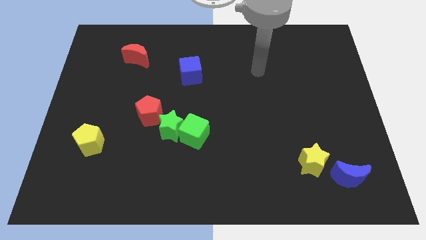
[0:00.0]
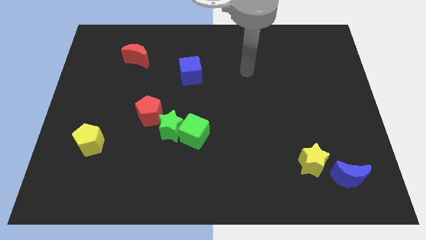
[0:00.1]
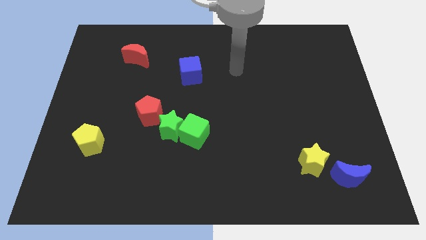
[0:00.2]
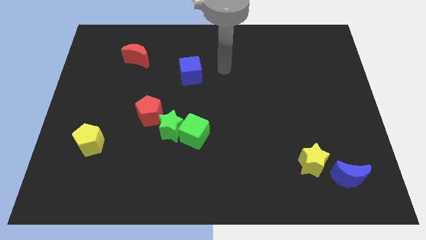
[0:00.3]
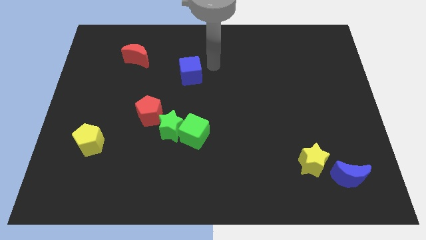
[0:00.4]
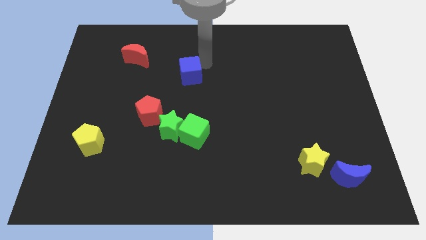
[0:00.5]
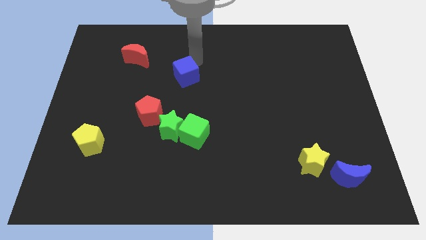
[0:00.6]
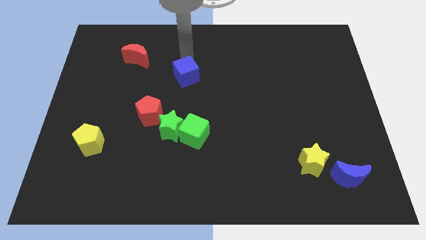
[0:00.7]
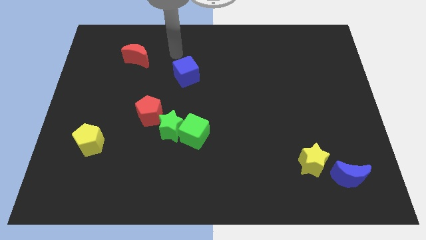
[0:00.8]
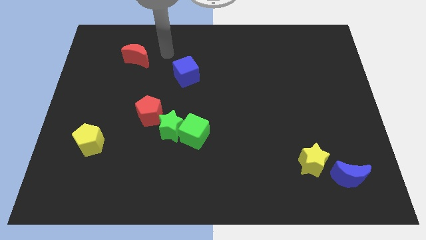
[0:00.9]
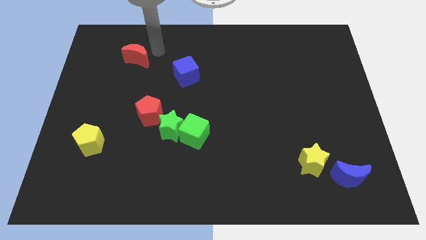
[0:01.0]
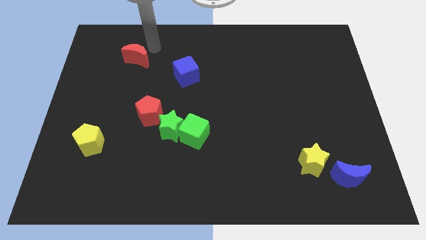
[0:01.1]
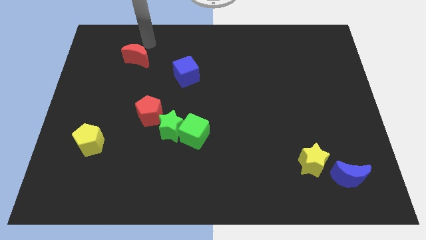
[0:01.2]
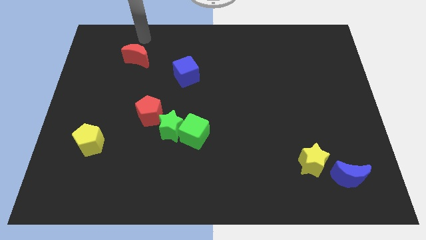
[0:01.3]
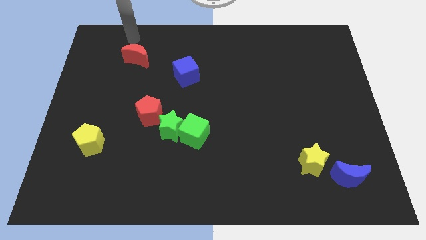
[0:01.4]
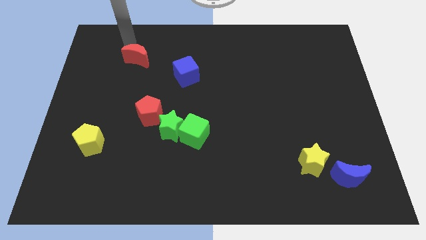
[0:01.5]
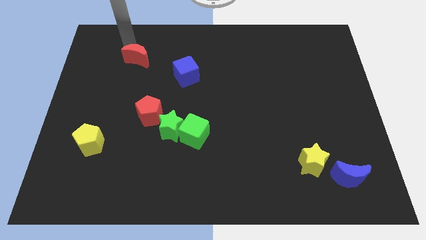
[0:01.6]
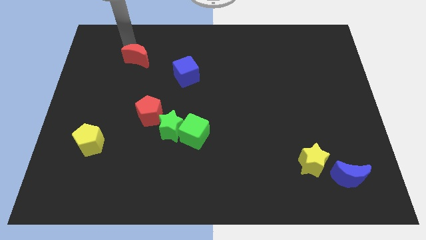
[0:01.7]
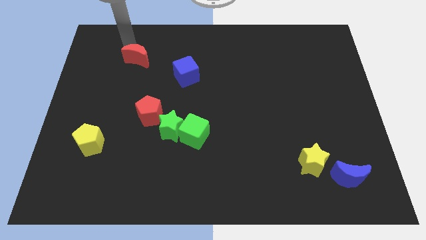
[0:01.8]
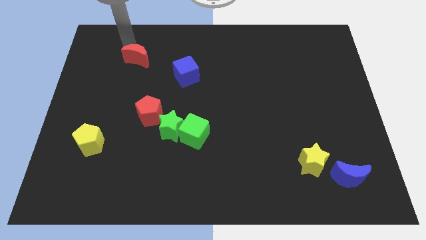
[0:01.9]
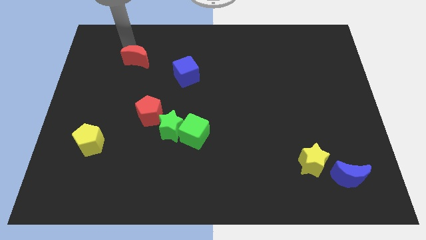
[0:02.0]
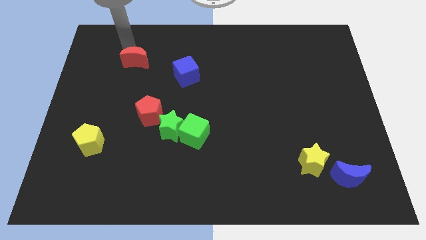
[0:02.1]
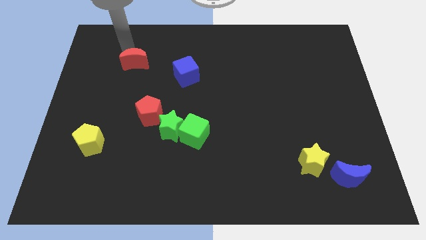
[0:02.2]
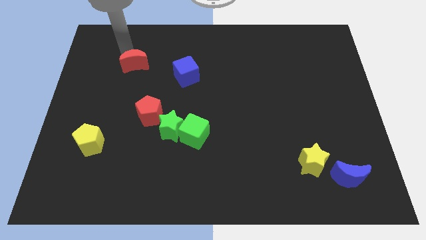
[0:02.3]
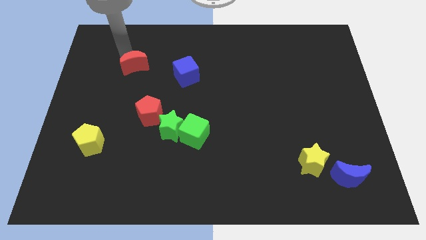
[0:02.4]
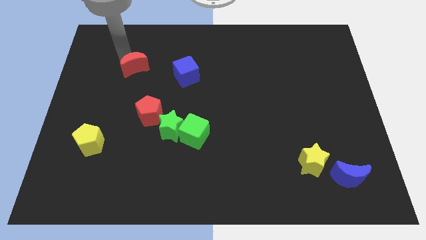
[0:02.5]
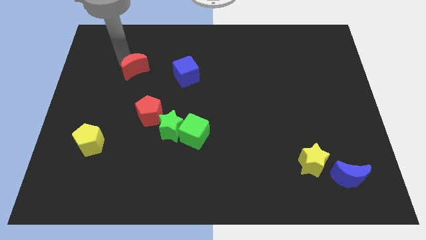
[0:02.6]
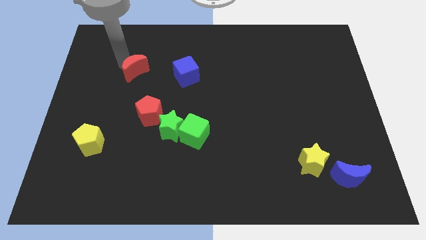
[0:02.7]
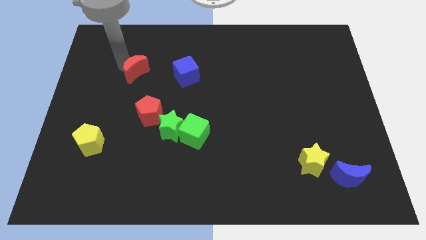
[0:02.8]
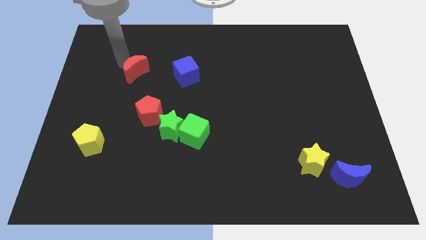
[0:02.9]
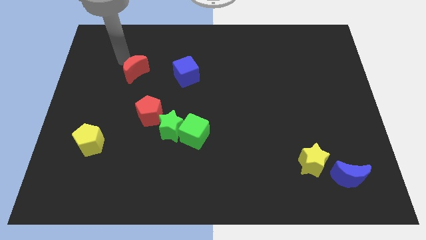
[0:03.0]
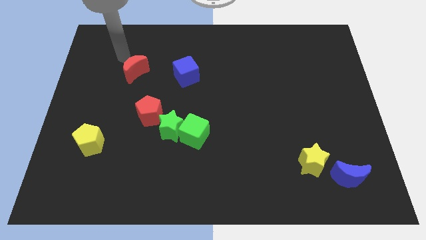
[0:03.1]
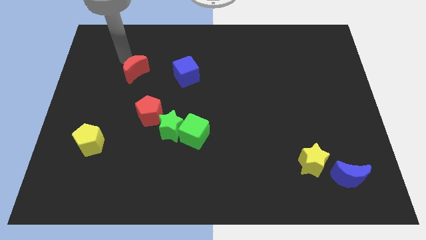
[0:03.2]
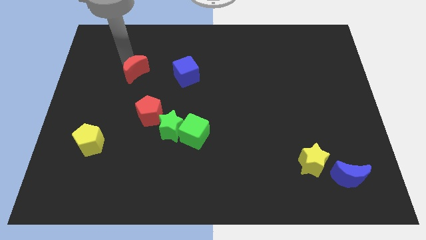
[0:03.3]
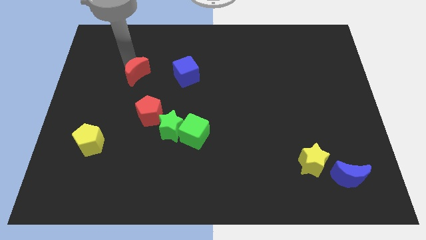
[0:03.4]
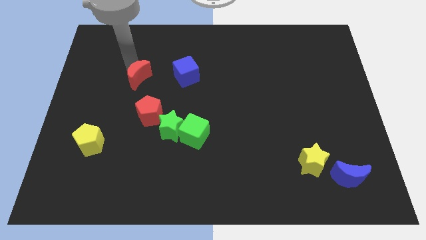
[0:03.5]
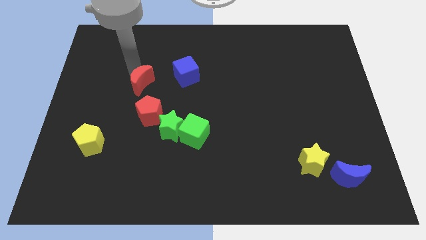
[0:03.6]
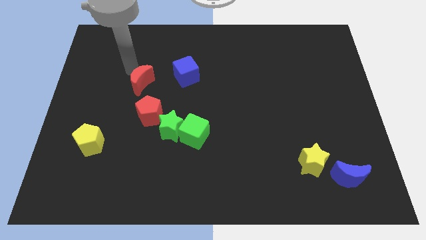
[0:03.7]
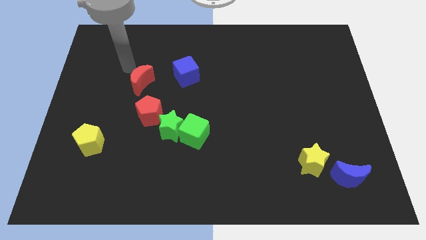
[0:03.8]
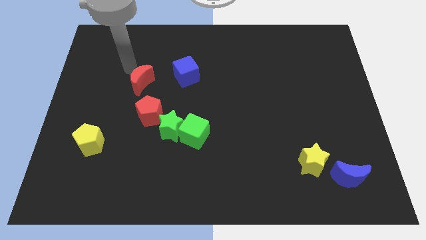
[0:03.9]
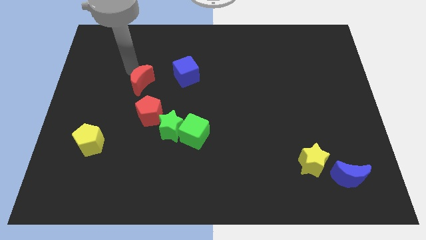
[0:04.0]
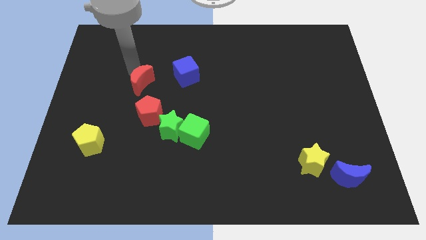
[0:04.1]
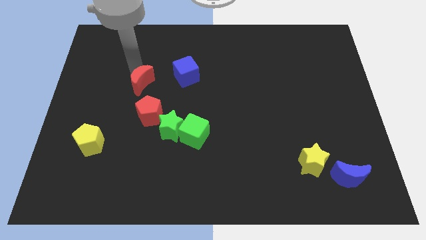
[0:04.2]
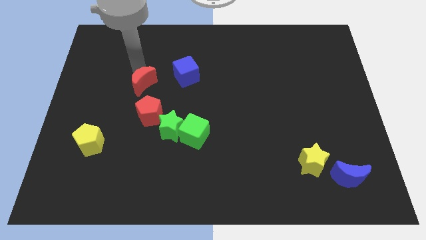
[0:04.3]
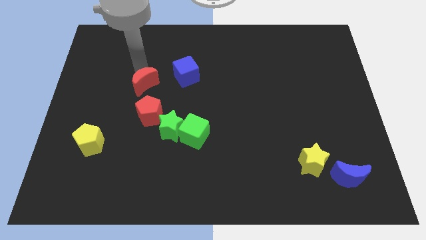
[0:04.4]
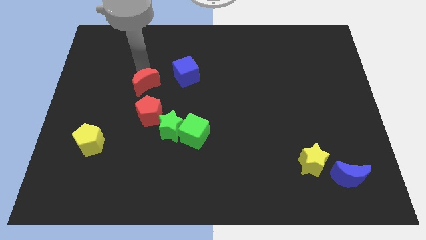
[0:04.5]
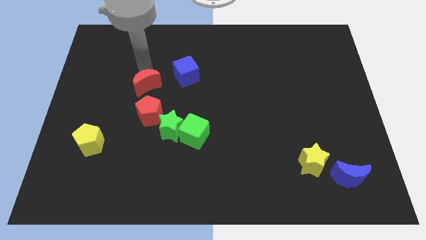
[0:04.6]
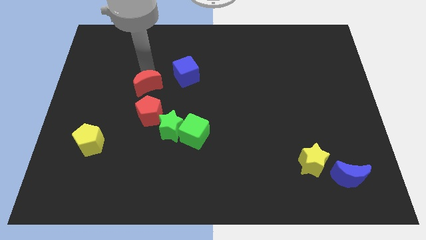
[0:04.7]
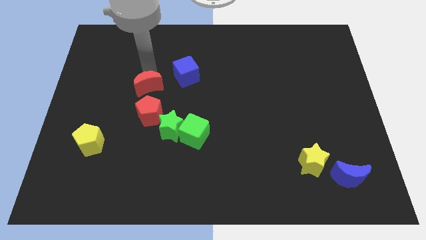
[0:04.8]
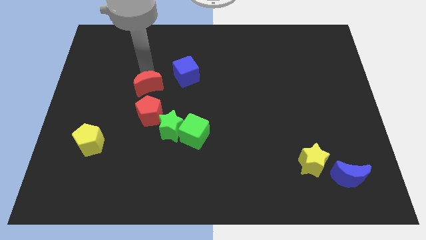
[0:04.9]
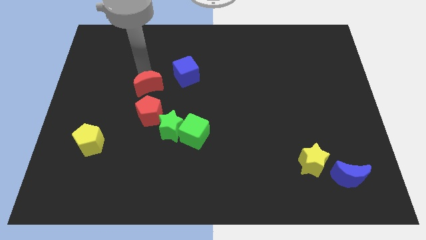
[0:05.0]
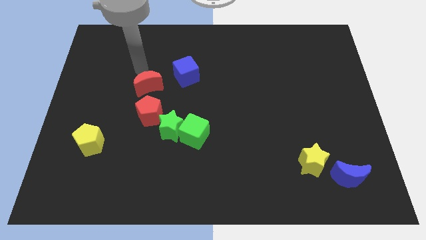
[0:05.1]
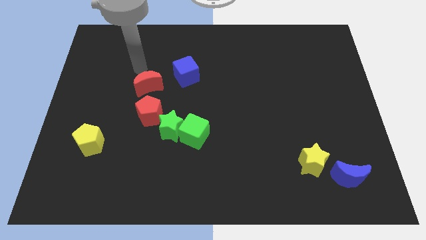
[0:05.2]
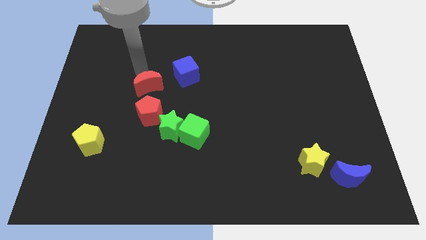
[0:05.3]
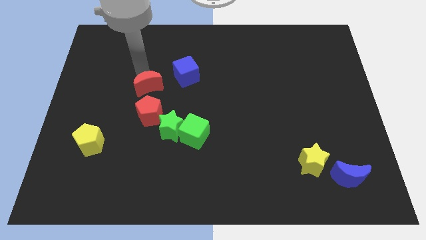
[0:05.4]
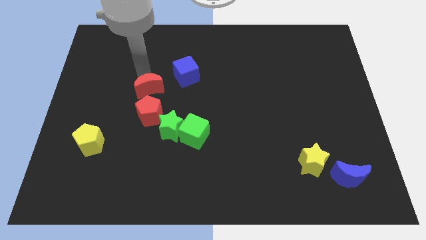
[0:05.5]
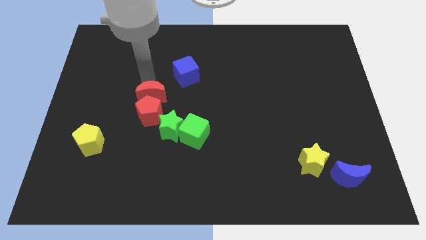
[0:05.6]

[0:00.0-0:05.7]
slide the red moon close to the red pentagon

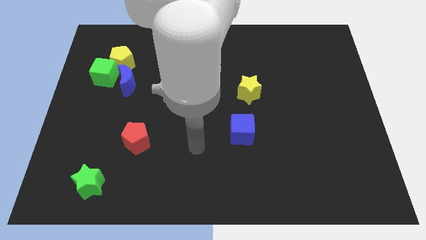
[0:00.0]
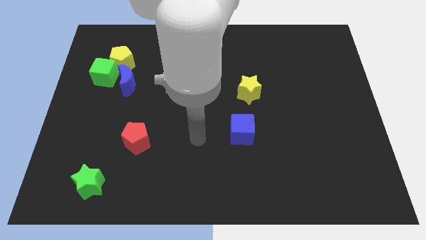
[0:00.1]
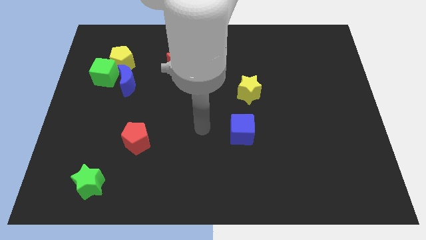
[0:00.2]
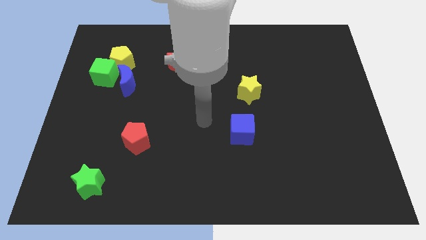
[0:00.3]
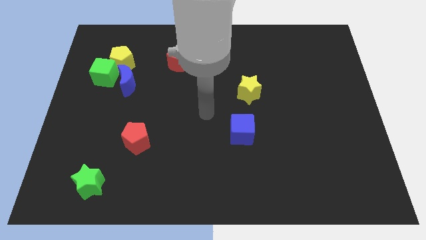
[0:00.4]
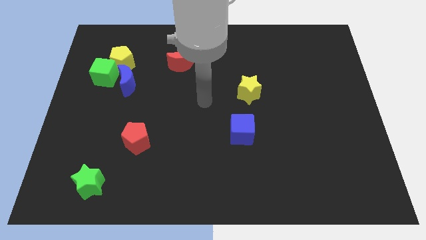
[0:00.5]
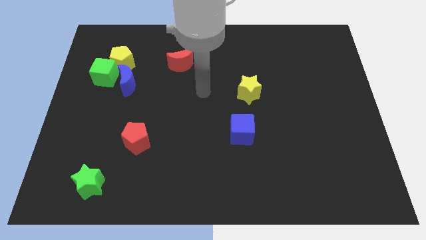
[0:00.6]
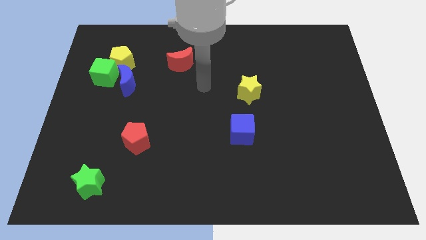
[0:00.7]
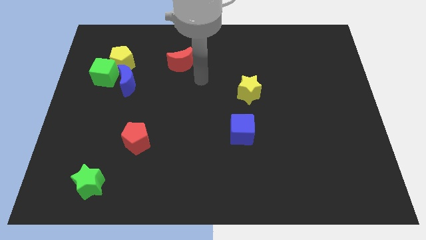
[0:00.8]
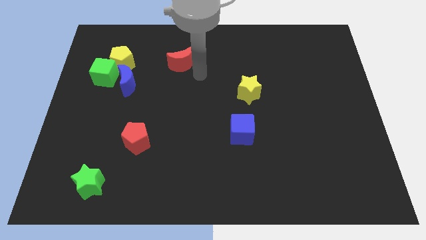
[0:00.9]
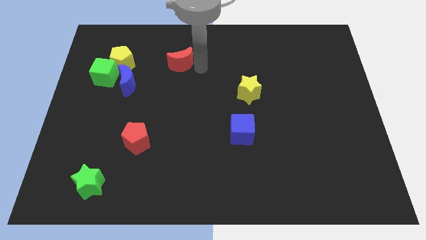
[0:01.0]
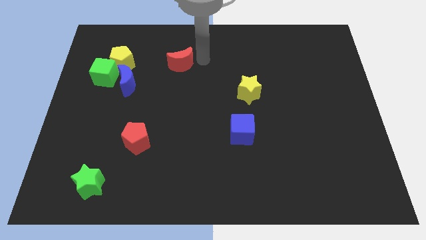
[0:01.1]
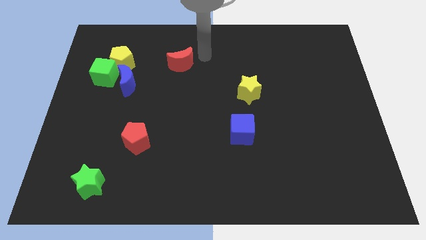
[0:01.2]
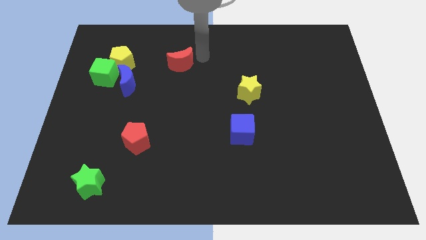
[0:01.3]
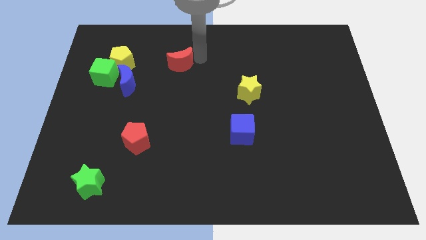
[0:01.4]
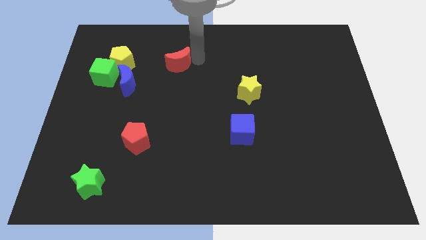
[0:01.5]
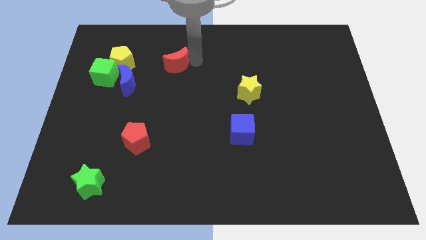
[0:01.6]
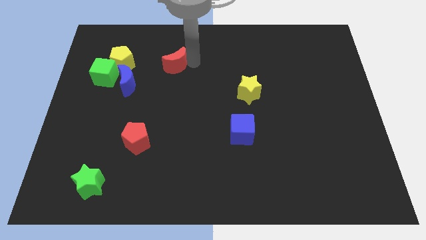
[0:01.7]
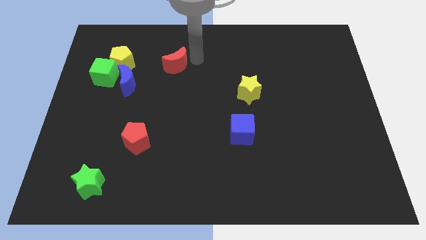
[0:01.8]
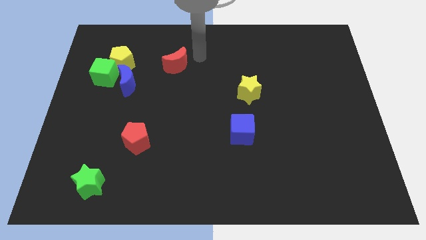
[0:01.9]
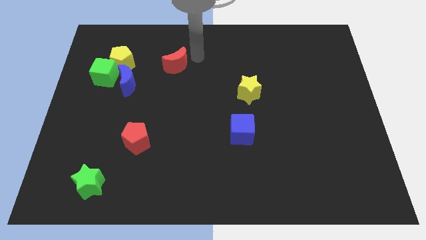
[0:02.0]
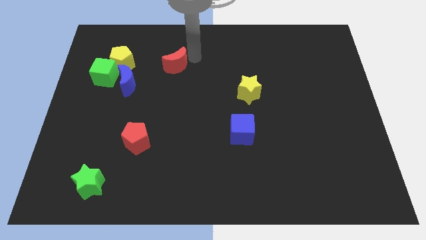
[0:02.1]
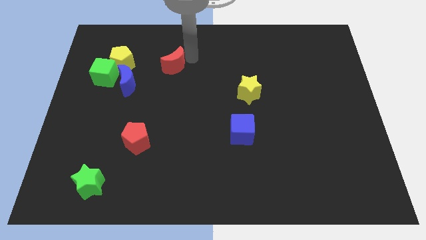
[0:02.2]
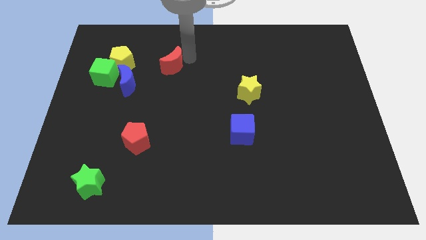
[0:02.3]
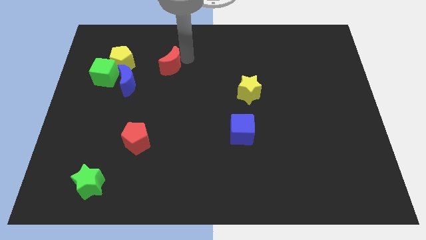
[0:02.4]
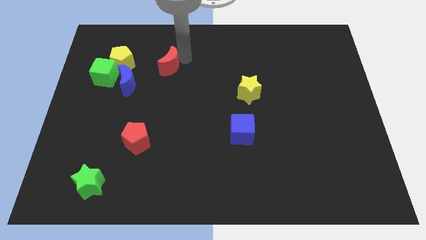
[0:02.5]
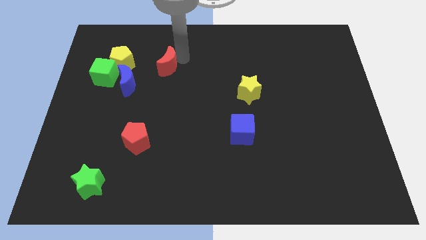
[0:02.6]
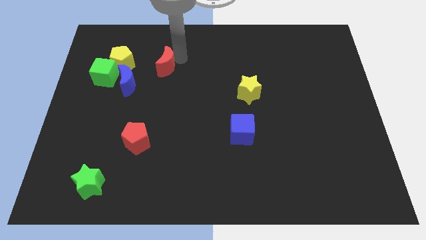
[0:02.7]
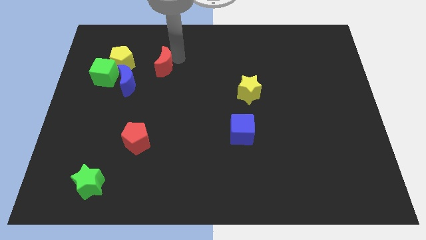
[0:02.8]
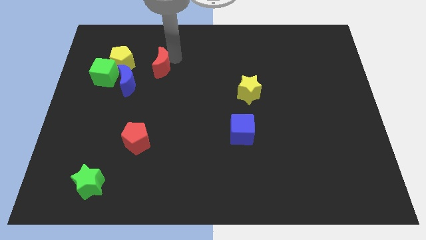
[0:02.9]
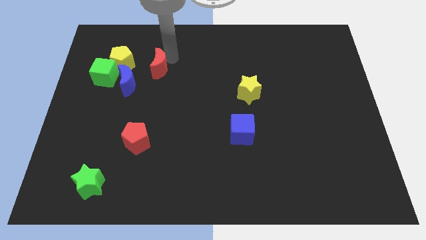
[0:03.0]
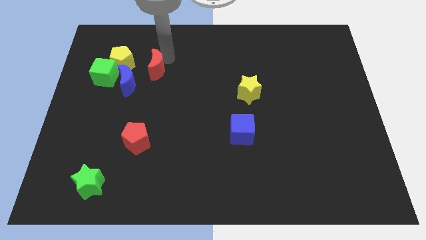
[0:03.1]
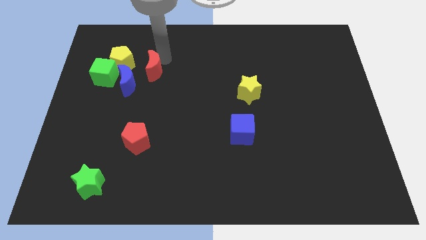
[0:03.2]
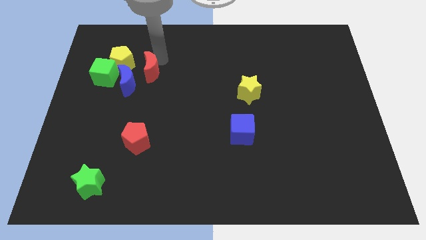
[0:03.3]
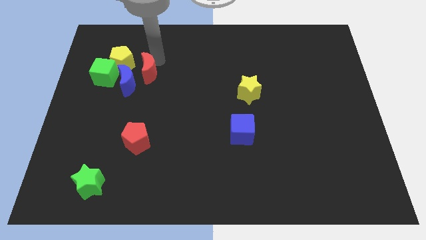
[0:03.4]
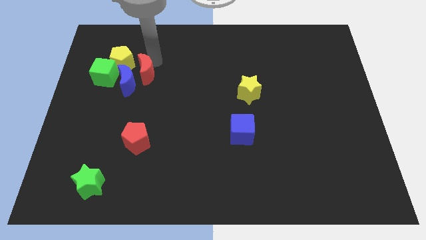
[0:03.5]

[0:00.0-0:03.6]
put the red moon towards the blue moon
